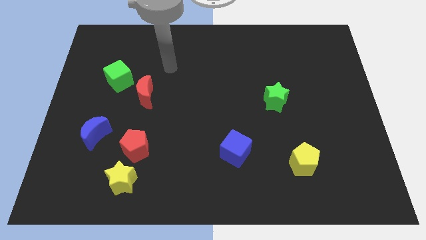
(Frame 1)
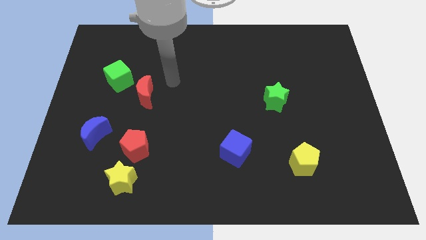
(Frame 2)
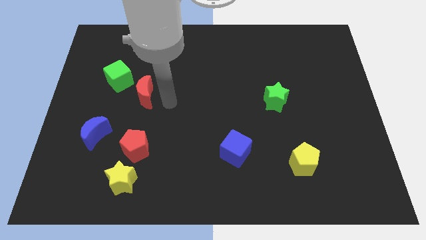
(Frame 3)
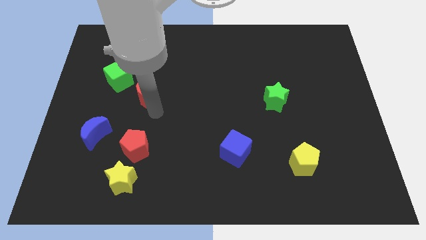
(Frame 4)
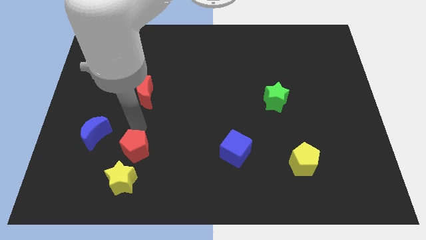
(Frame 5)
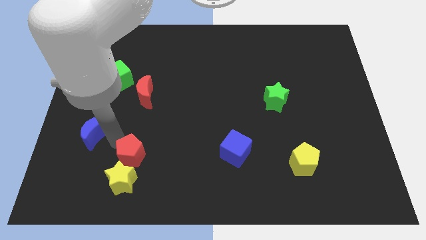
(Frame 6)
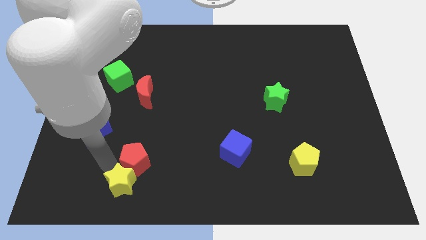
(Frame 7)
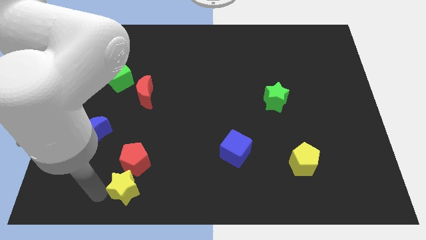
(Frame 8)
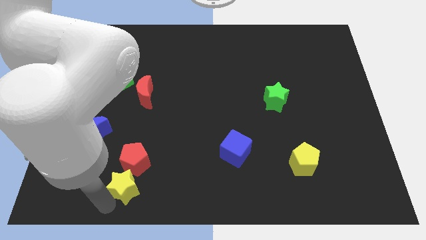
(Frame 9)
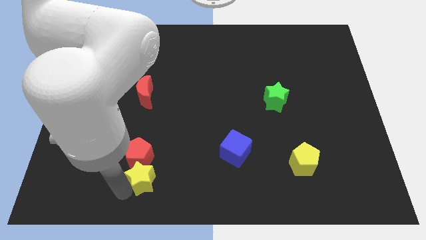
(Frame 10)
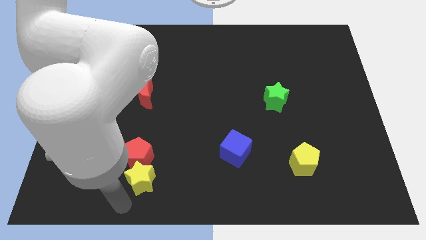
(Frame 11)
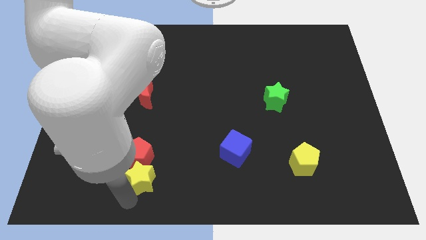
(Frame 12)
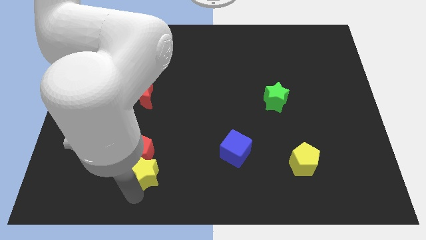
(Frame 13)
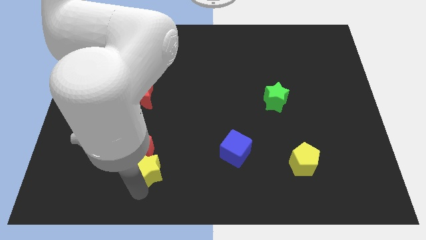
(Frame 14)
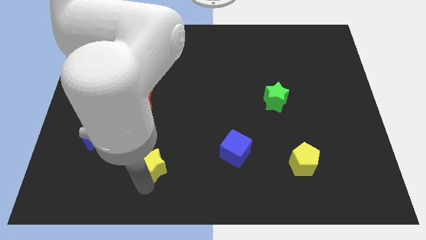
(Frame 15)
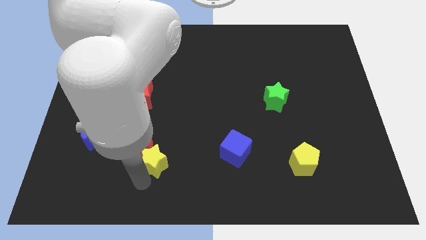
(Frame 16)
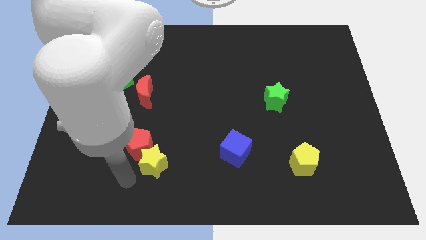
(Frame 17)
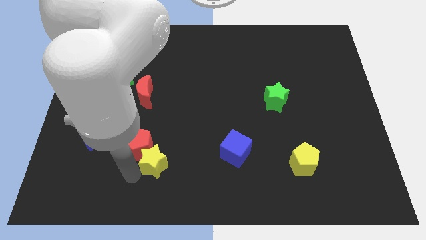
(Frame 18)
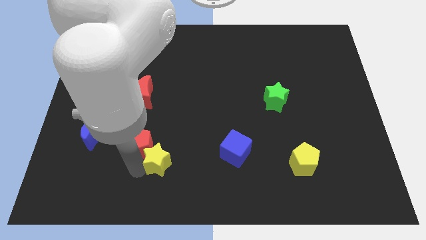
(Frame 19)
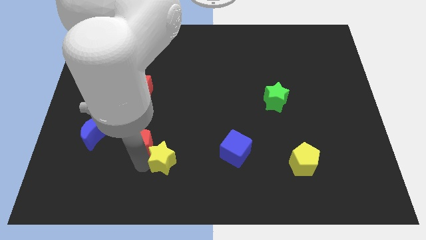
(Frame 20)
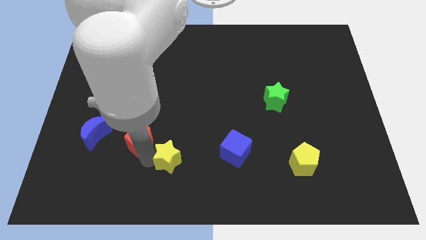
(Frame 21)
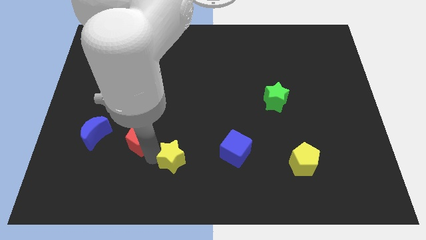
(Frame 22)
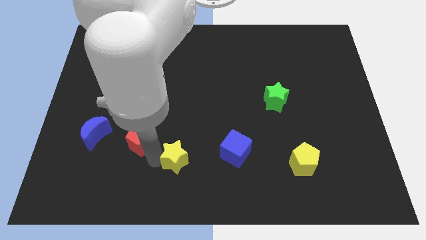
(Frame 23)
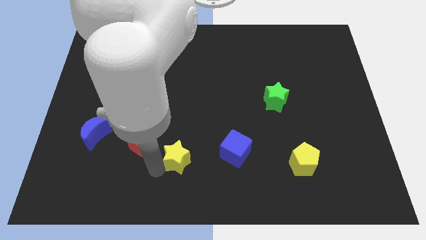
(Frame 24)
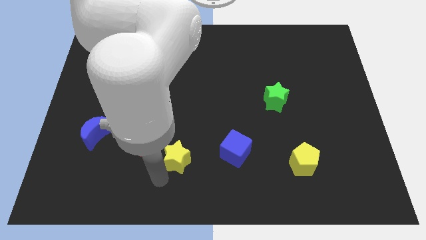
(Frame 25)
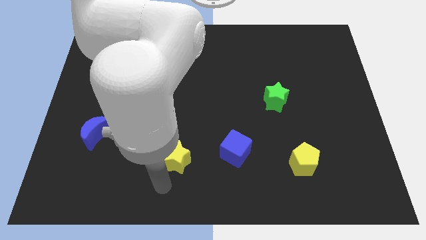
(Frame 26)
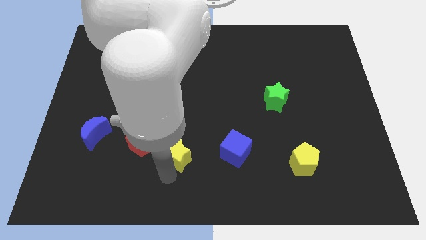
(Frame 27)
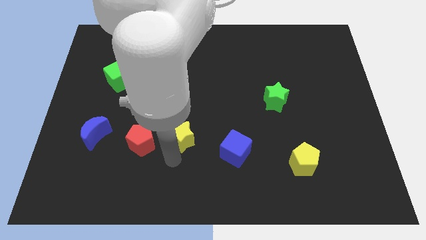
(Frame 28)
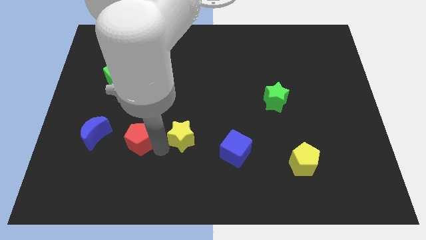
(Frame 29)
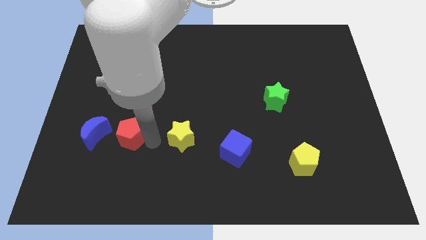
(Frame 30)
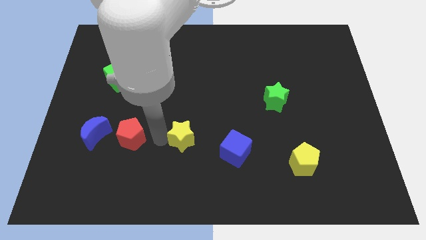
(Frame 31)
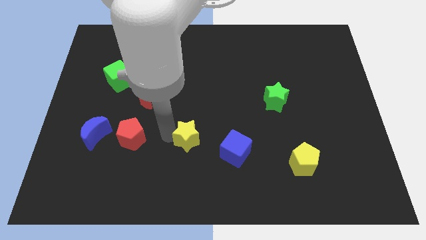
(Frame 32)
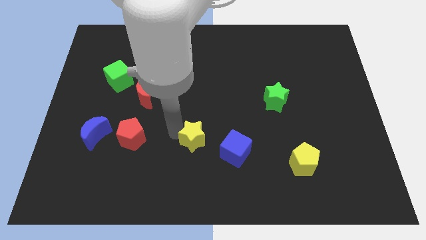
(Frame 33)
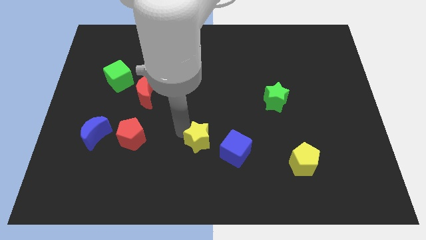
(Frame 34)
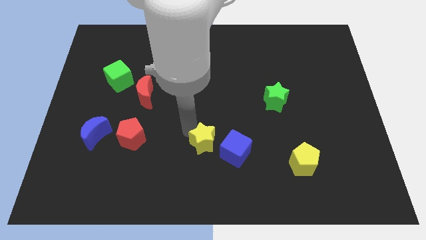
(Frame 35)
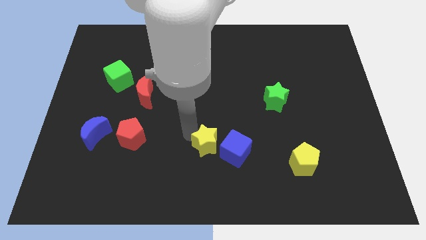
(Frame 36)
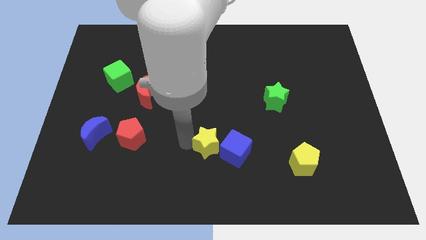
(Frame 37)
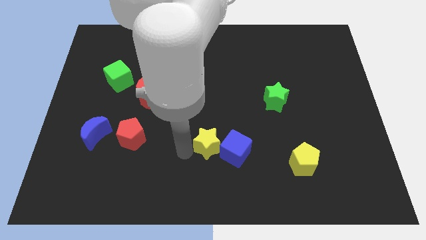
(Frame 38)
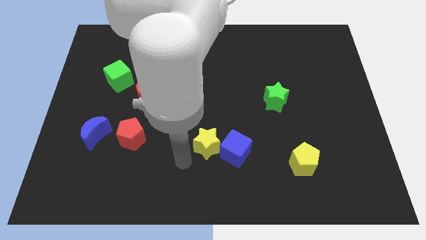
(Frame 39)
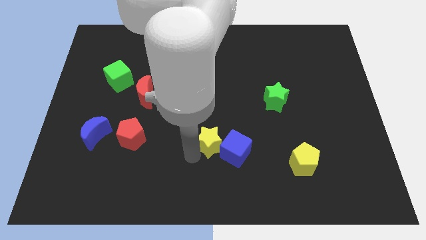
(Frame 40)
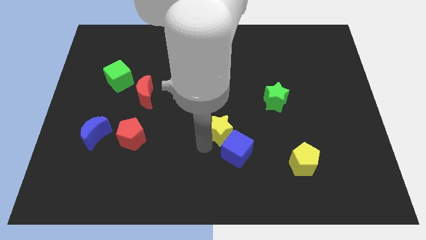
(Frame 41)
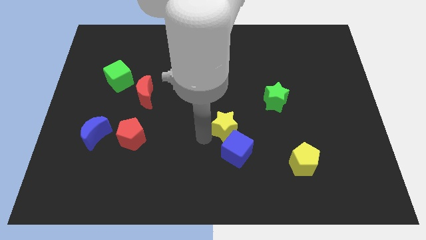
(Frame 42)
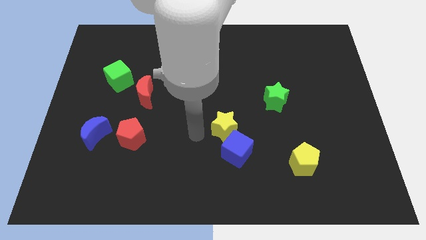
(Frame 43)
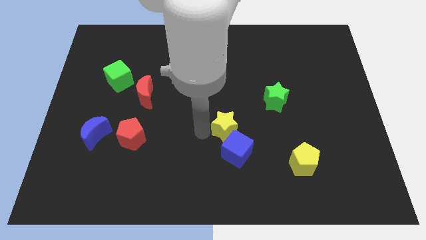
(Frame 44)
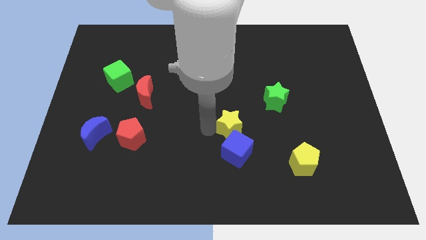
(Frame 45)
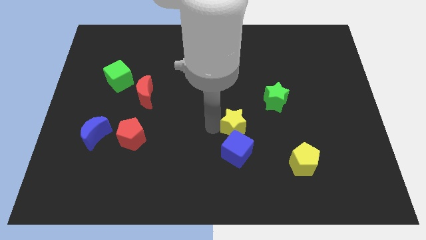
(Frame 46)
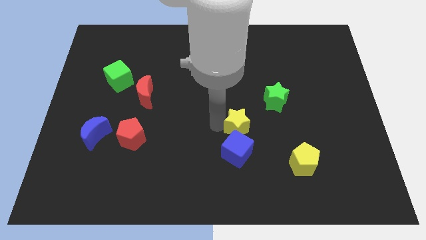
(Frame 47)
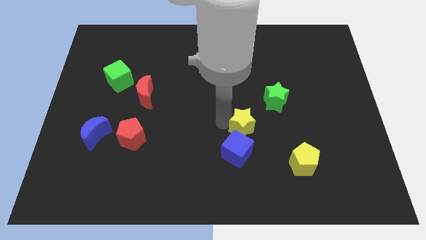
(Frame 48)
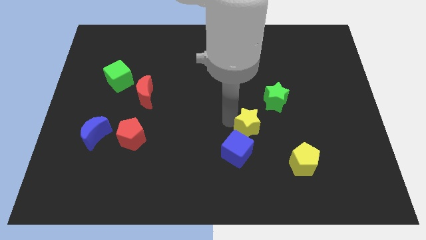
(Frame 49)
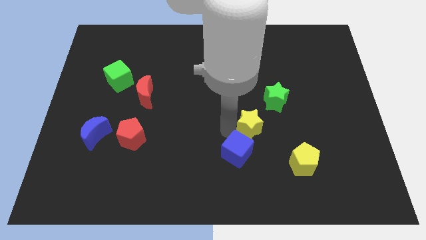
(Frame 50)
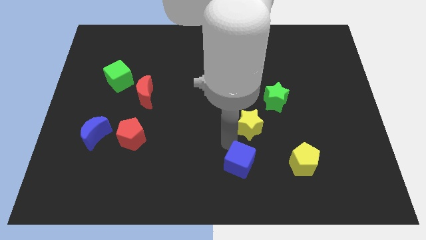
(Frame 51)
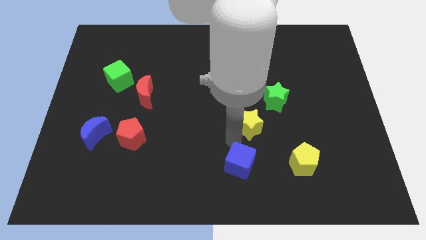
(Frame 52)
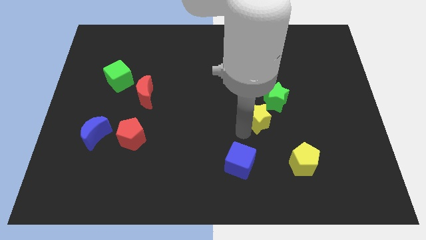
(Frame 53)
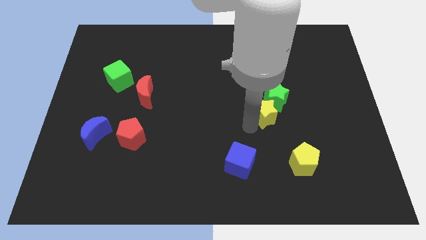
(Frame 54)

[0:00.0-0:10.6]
put the yellow star next to the green star
